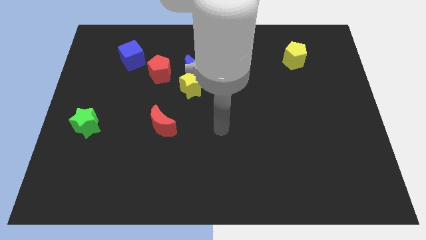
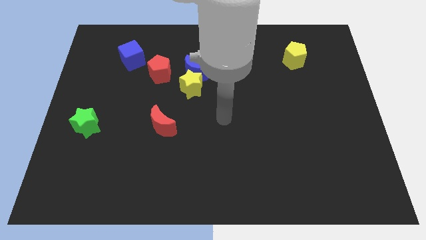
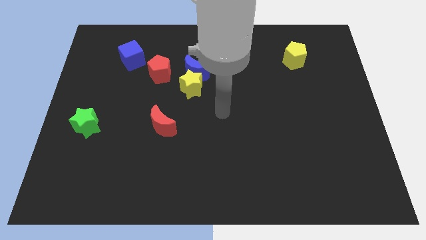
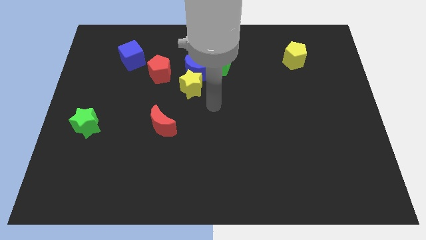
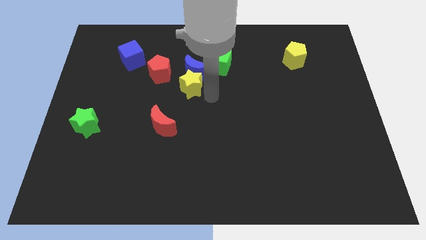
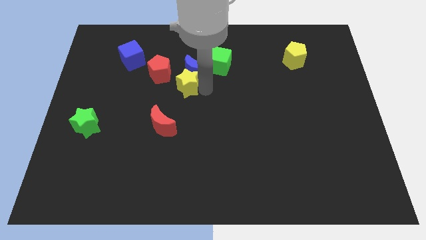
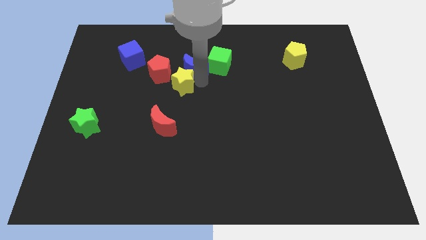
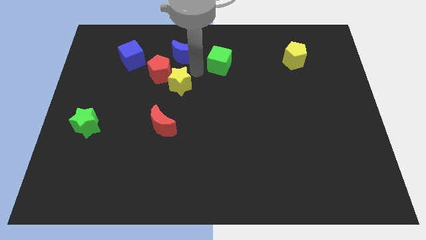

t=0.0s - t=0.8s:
pull the green cube apart from the blue moon

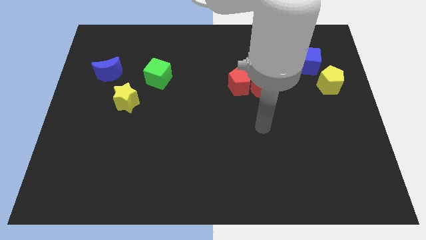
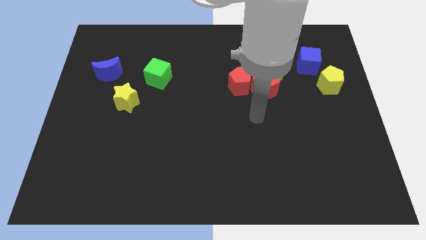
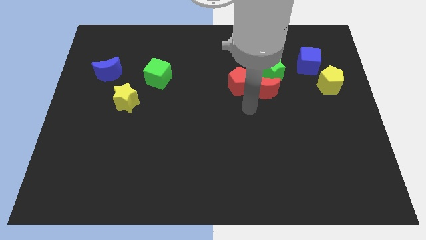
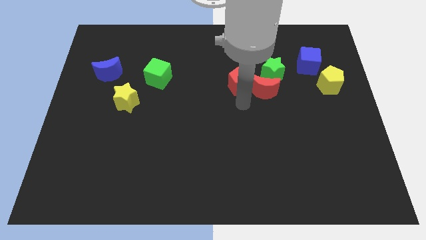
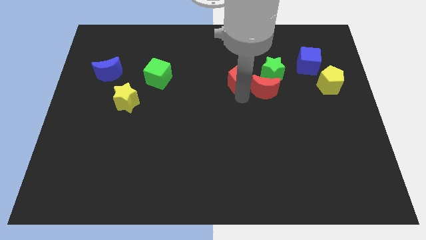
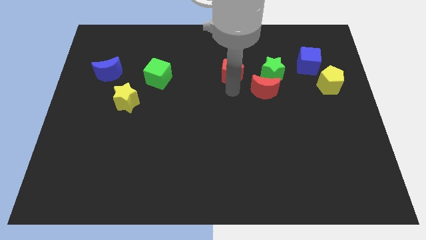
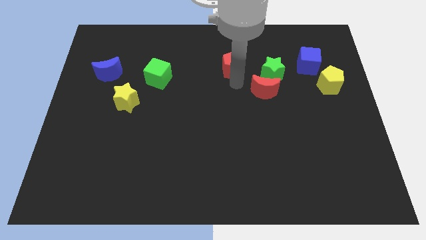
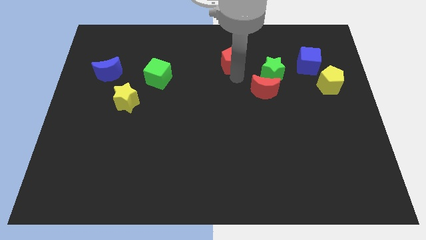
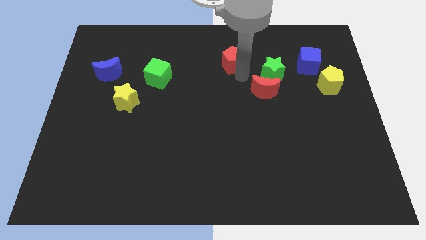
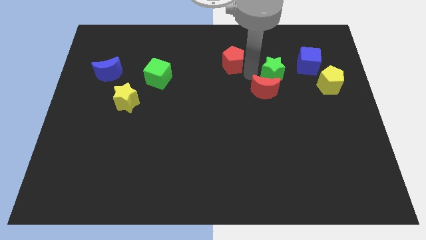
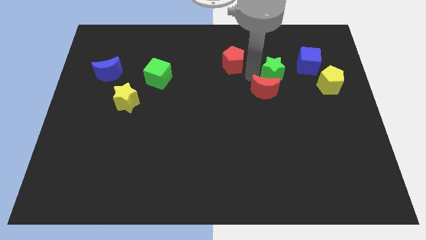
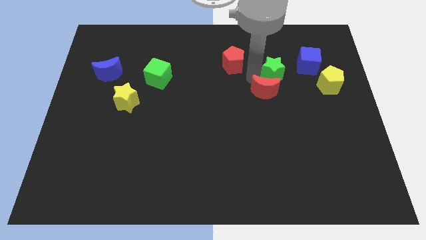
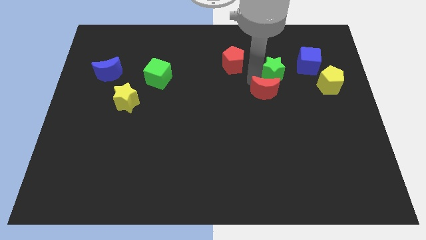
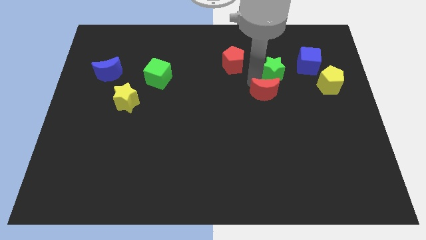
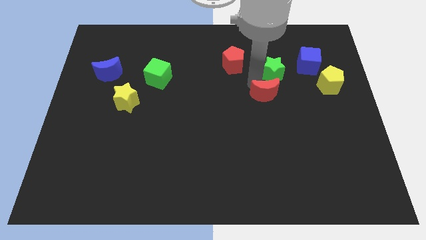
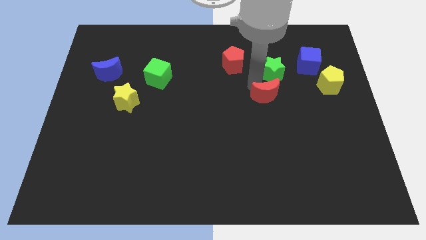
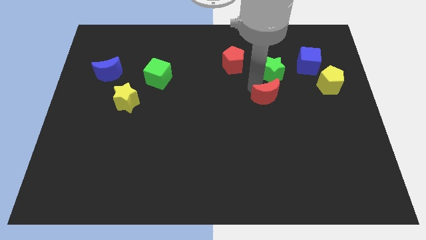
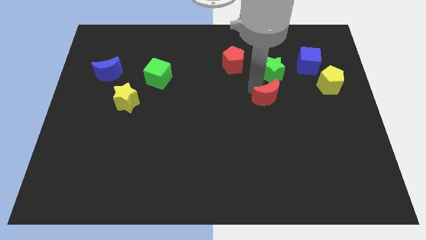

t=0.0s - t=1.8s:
pull the red moon apart from the red pentagon and green star

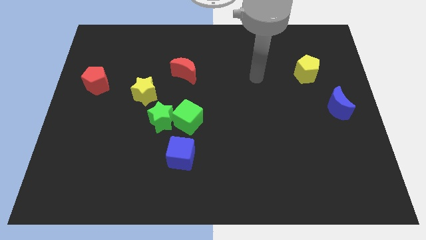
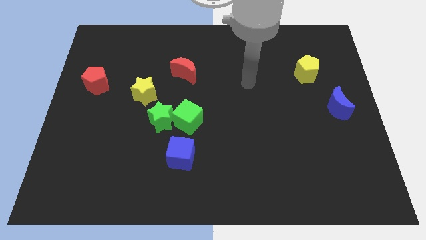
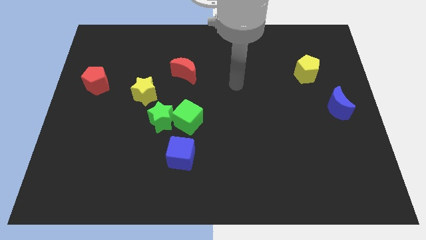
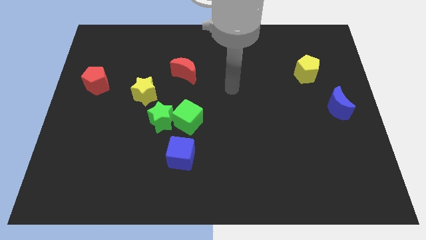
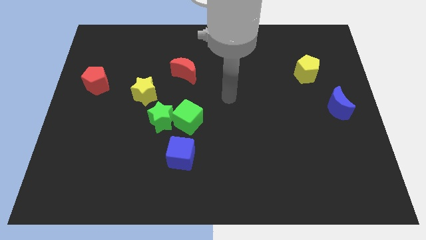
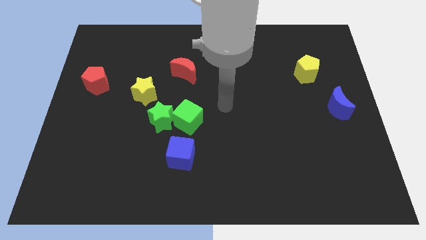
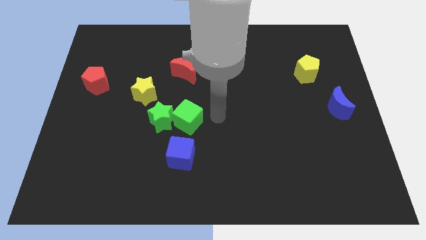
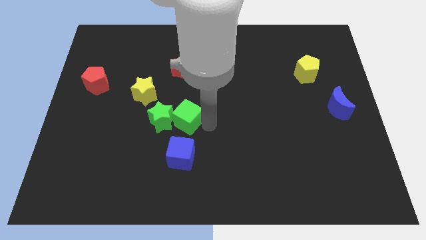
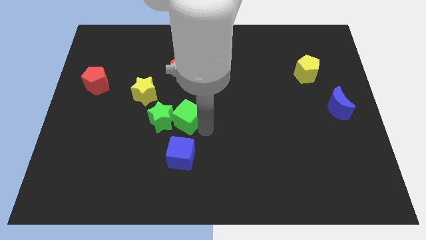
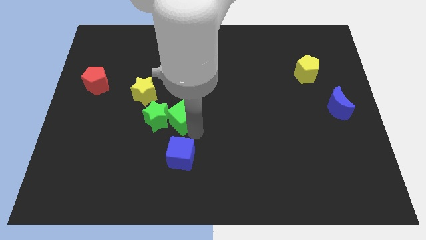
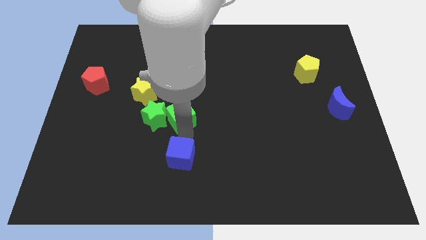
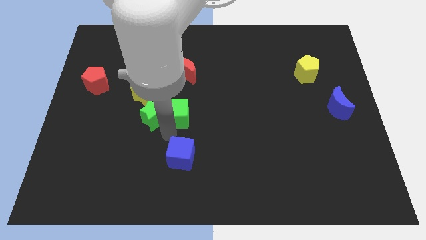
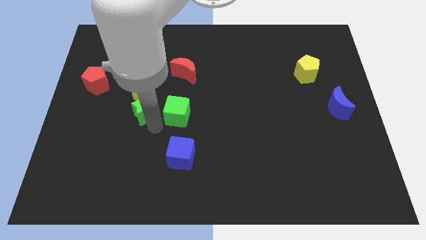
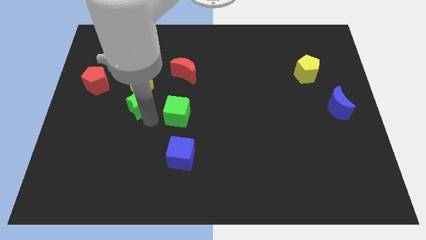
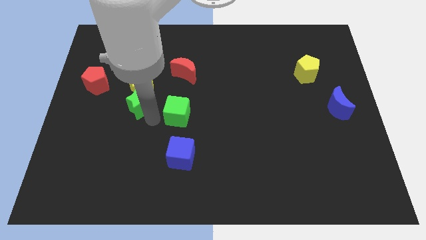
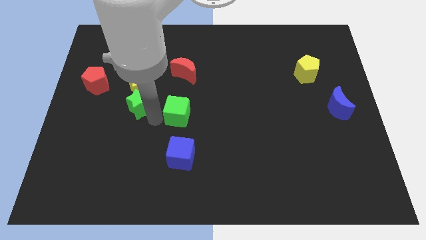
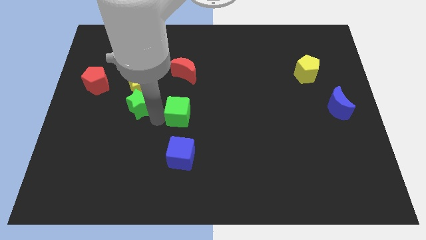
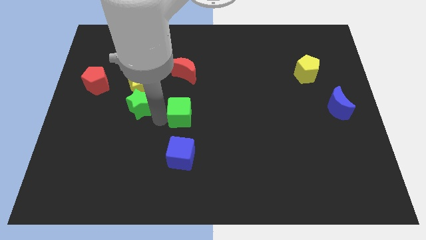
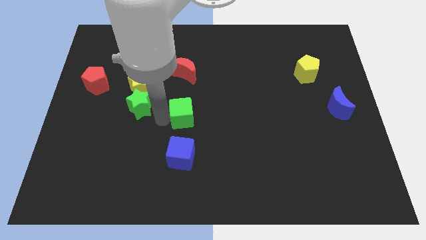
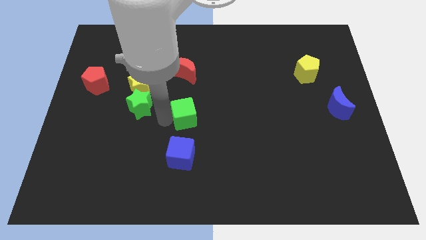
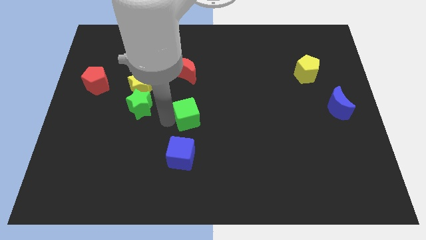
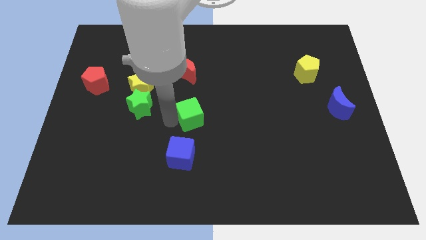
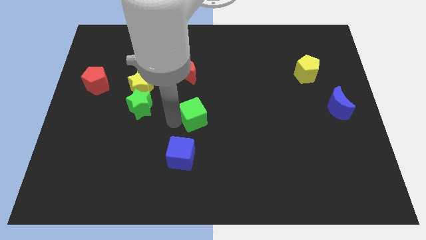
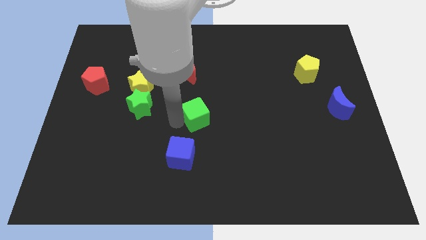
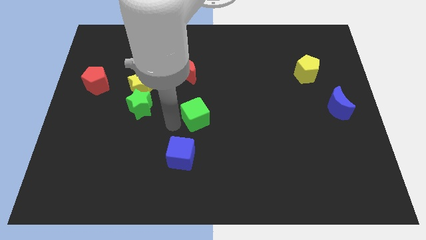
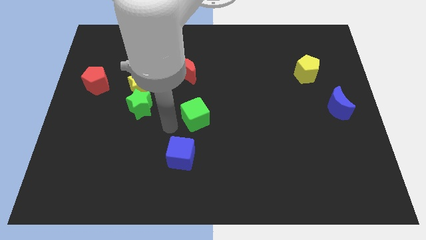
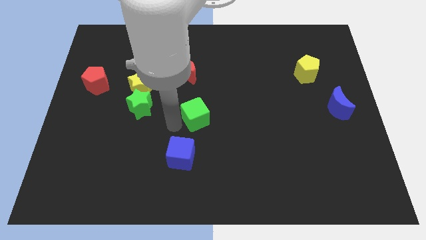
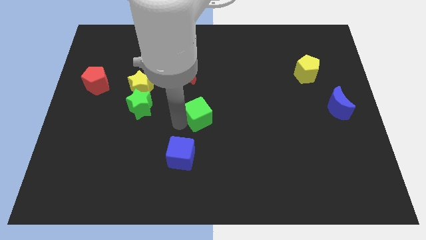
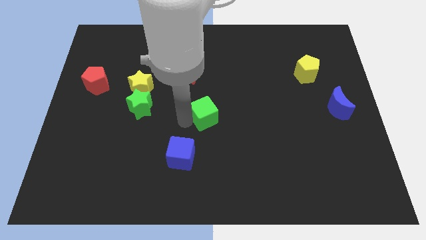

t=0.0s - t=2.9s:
move the green cube away from the green star and blue cube

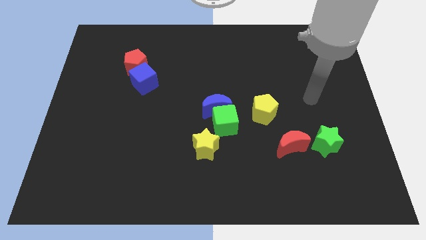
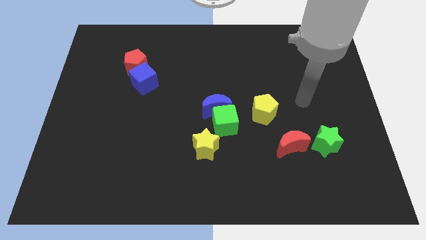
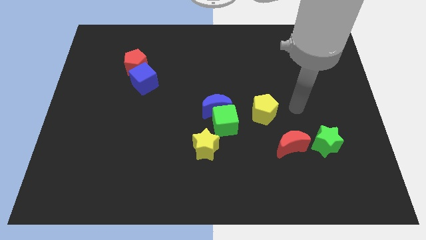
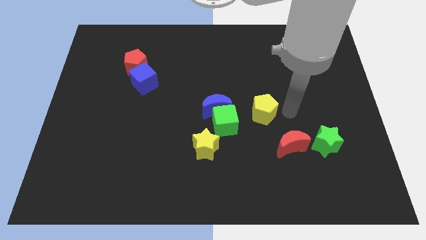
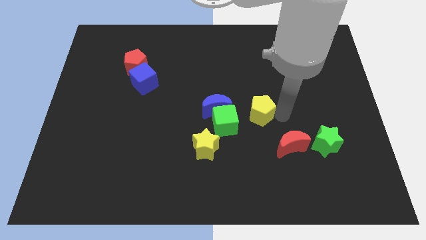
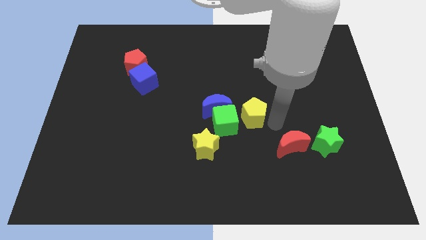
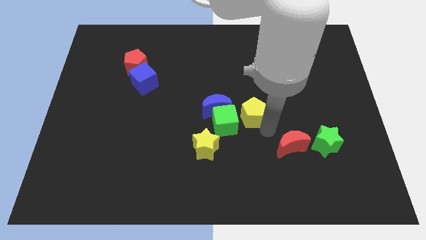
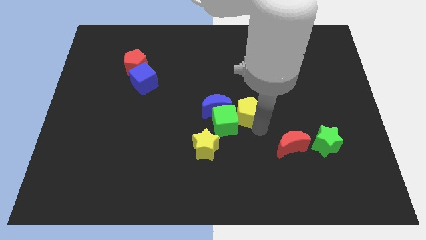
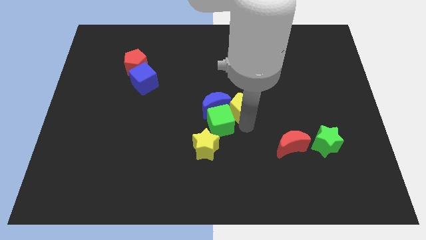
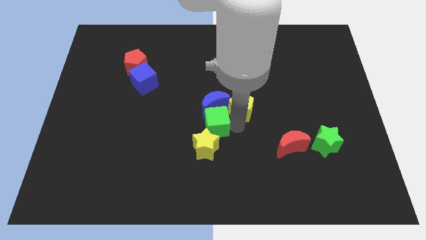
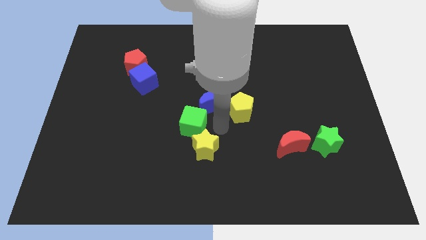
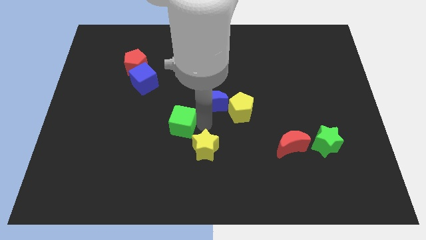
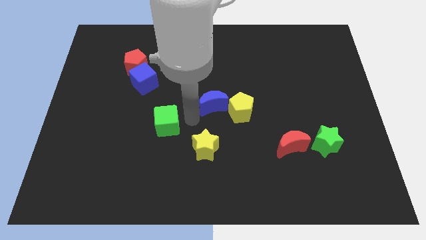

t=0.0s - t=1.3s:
separate the blue moon from the green cube

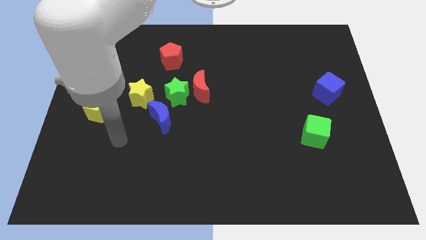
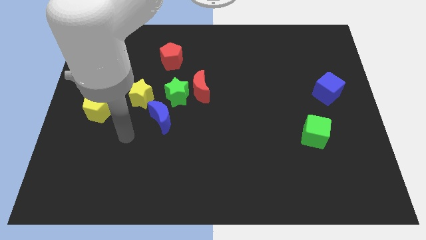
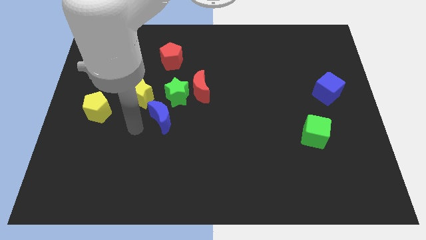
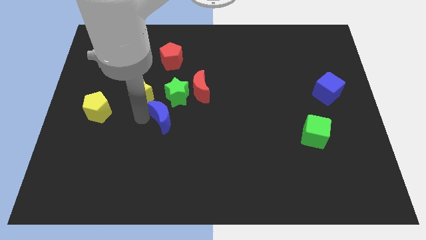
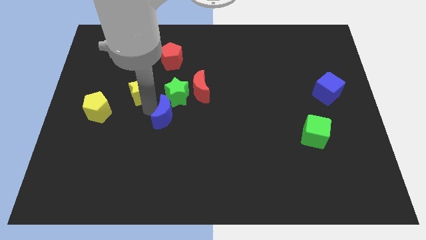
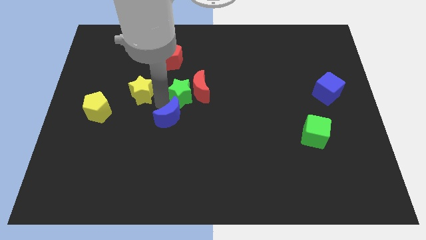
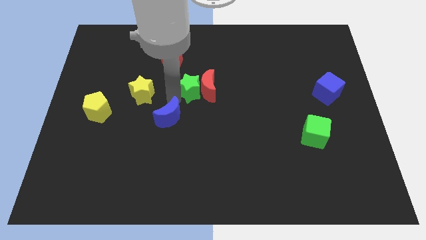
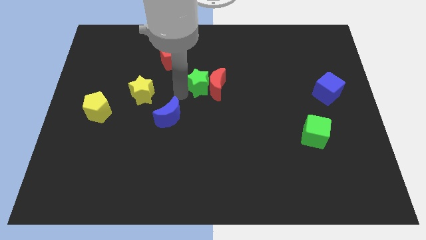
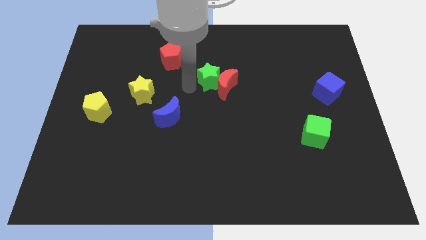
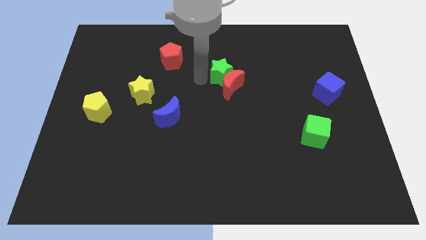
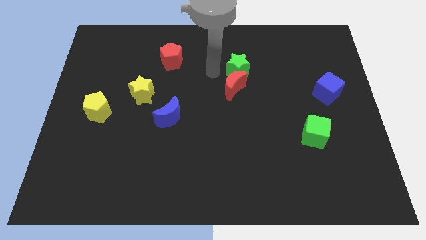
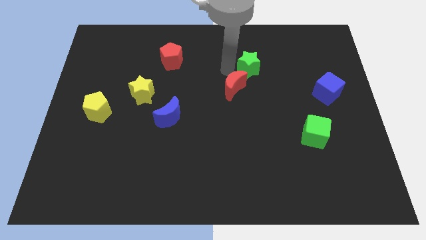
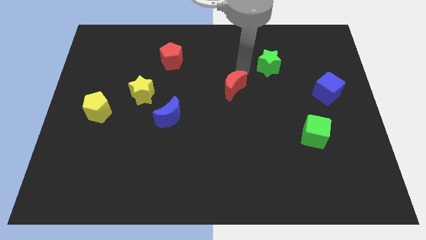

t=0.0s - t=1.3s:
move the red moon away from the green star

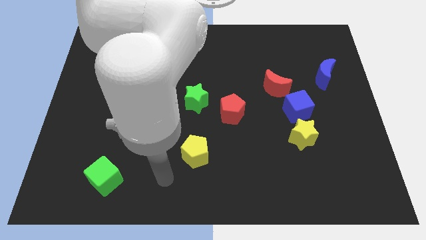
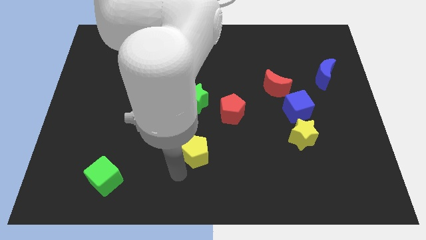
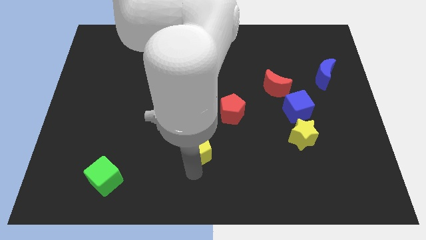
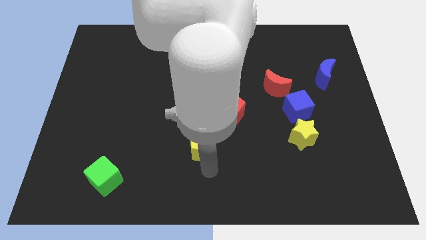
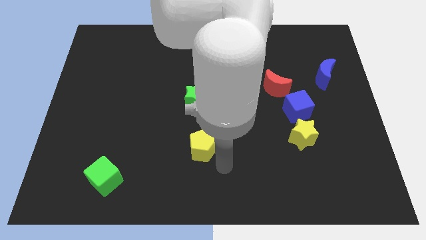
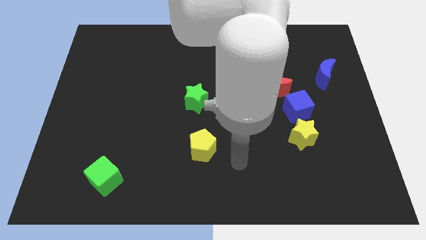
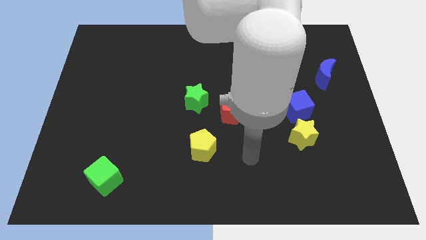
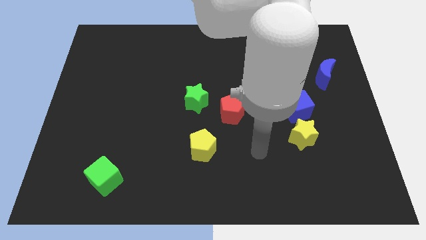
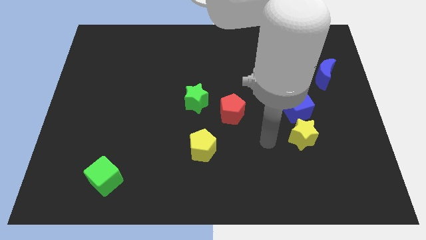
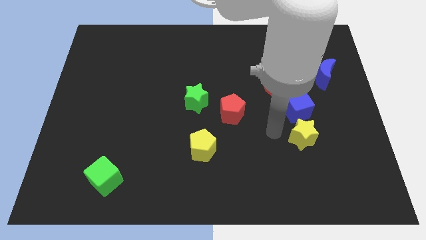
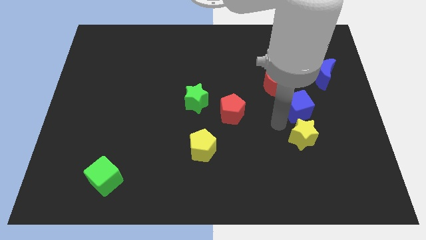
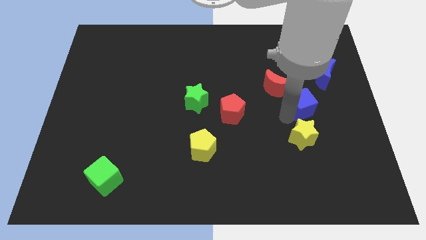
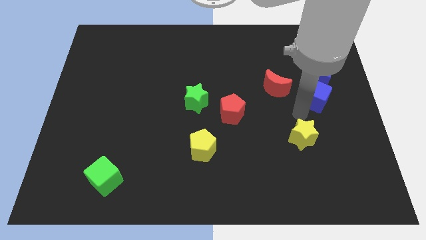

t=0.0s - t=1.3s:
separate the yellow star from the blue cube
